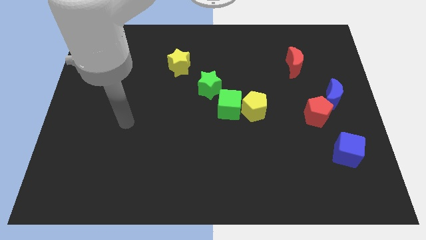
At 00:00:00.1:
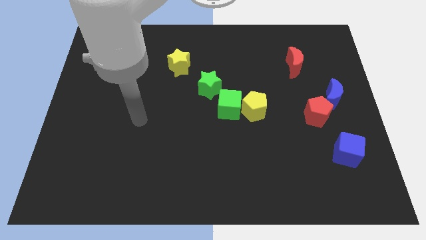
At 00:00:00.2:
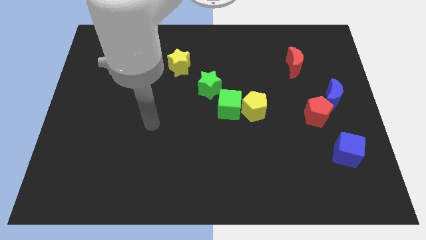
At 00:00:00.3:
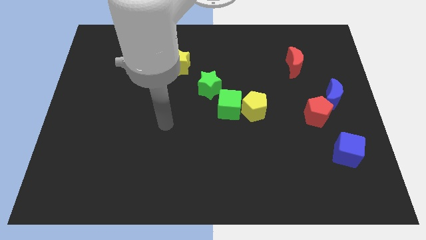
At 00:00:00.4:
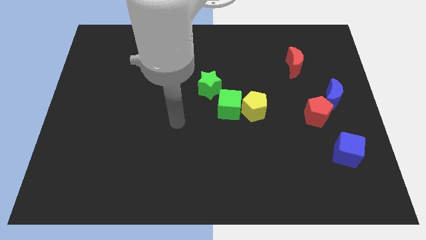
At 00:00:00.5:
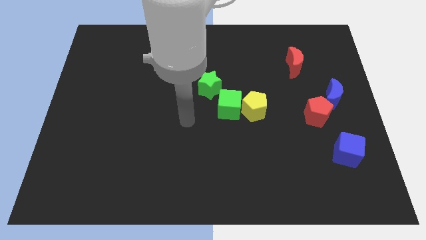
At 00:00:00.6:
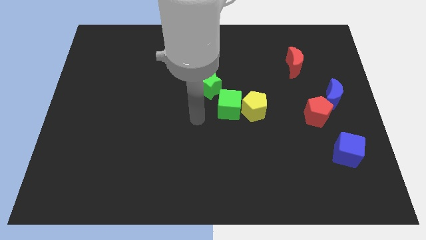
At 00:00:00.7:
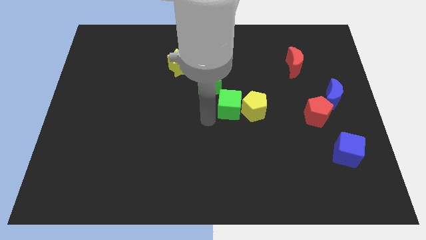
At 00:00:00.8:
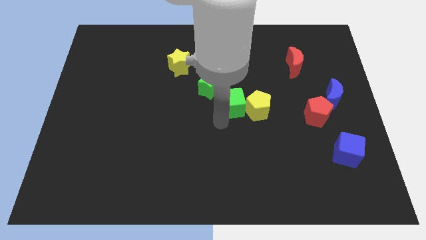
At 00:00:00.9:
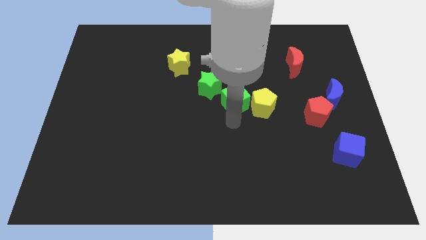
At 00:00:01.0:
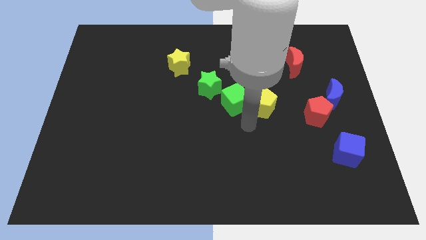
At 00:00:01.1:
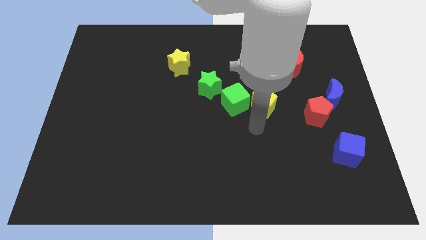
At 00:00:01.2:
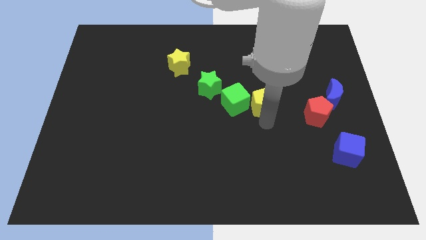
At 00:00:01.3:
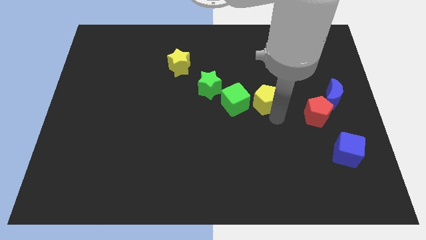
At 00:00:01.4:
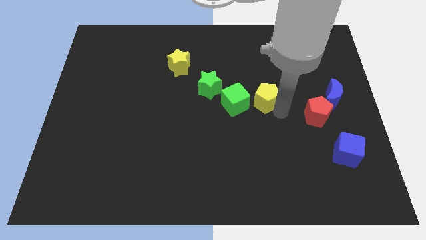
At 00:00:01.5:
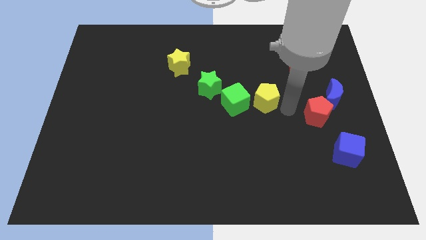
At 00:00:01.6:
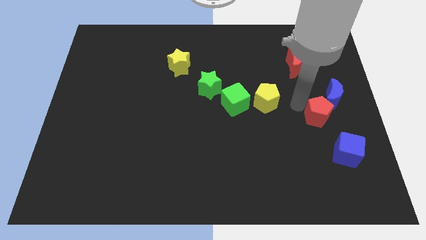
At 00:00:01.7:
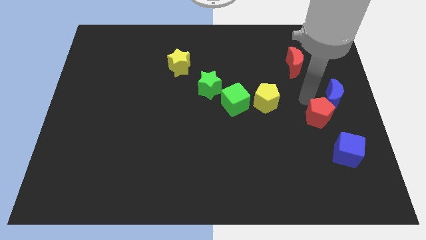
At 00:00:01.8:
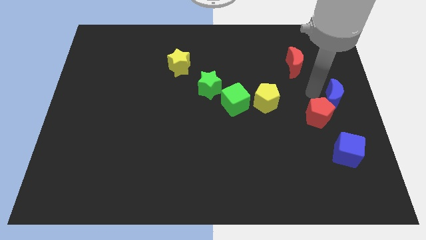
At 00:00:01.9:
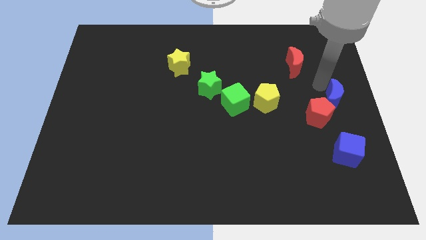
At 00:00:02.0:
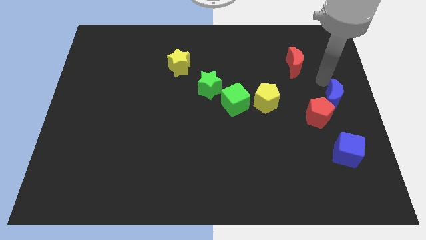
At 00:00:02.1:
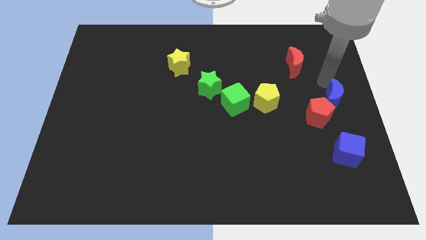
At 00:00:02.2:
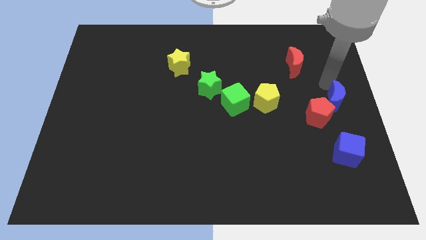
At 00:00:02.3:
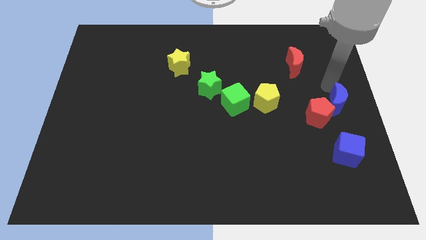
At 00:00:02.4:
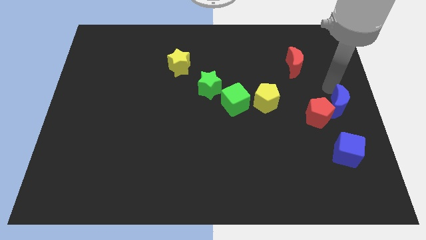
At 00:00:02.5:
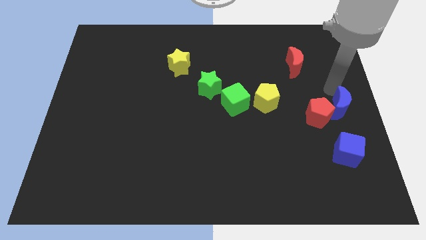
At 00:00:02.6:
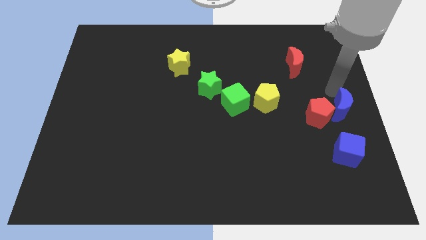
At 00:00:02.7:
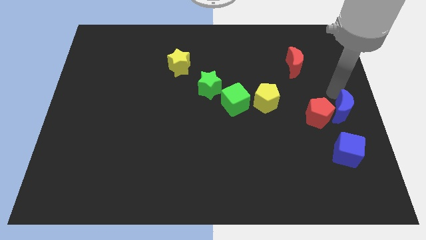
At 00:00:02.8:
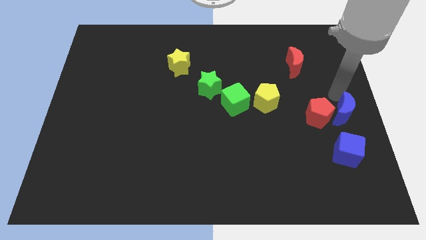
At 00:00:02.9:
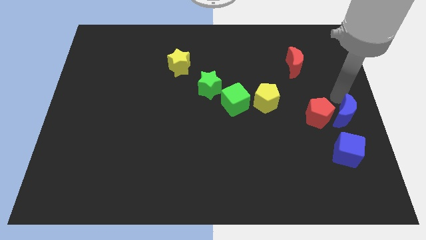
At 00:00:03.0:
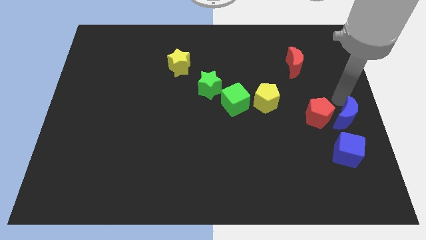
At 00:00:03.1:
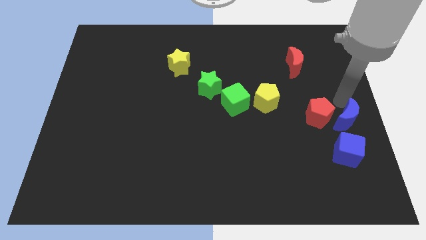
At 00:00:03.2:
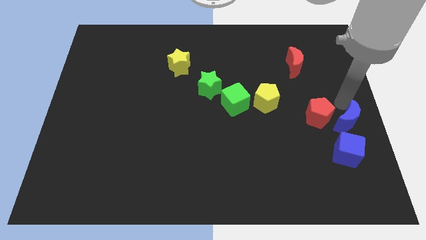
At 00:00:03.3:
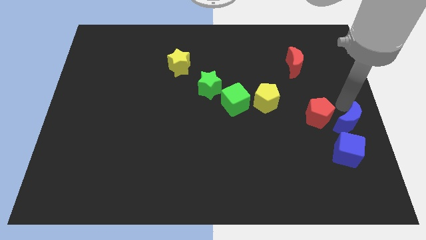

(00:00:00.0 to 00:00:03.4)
move the blue moon a bit downwards

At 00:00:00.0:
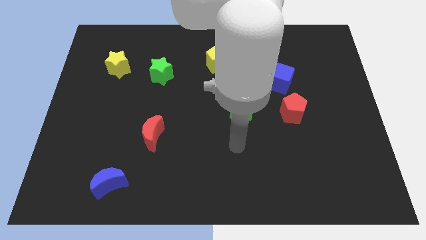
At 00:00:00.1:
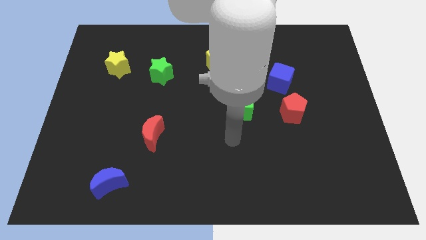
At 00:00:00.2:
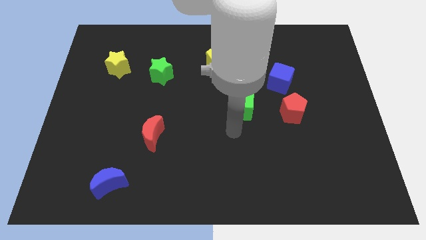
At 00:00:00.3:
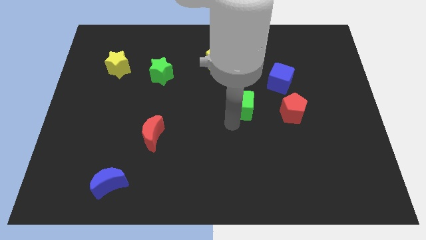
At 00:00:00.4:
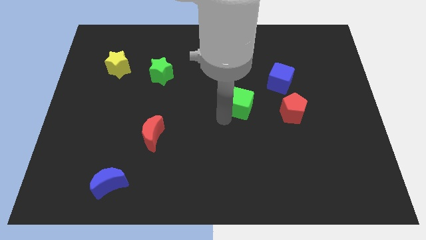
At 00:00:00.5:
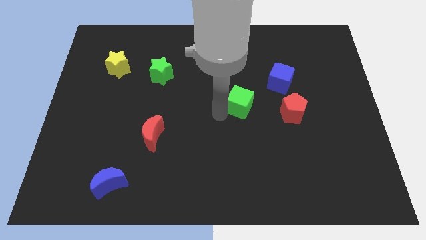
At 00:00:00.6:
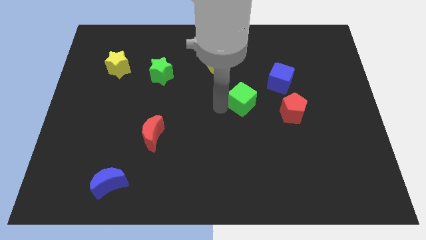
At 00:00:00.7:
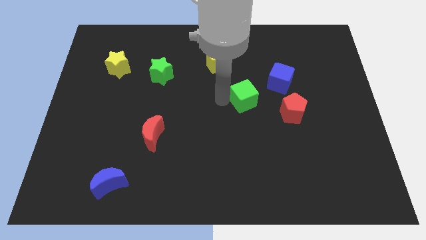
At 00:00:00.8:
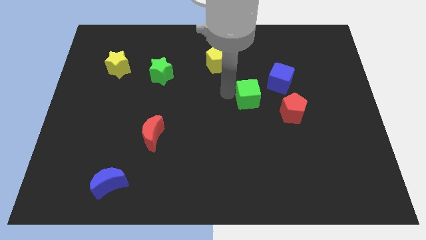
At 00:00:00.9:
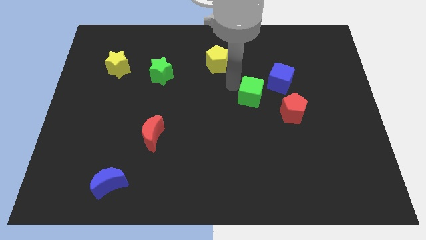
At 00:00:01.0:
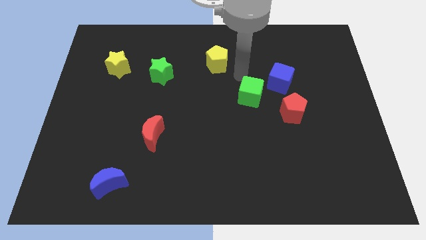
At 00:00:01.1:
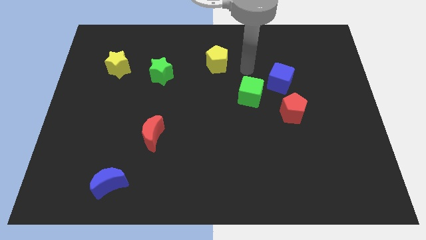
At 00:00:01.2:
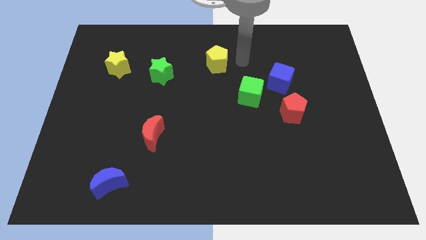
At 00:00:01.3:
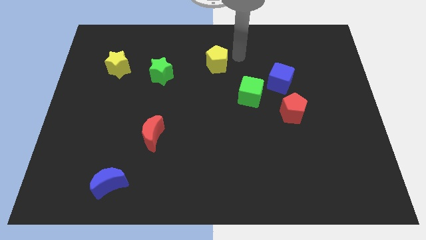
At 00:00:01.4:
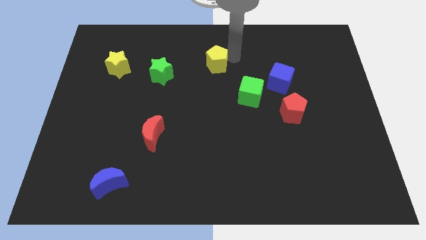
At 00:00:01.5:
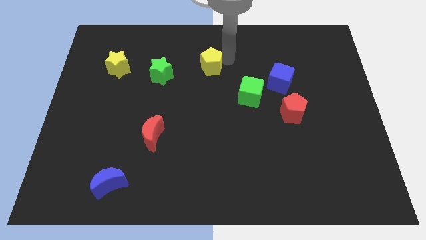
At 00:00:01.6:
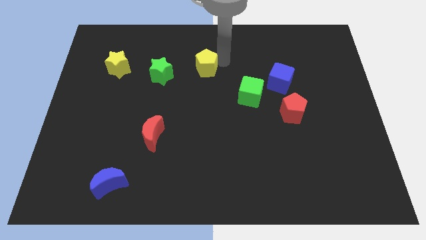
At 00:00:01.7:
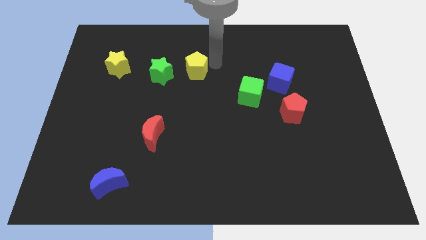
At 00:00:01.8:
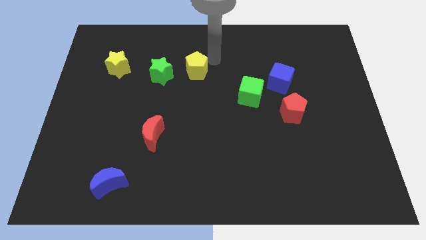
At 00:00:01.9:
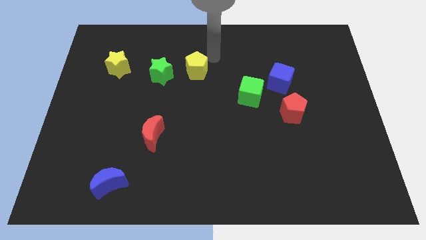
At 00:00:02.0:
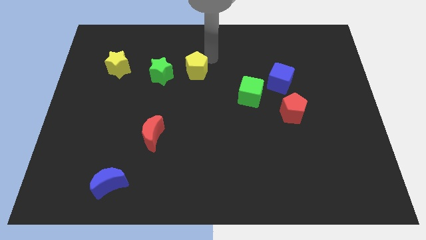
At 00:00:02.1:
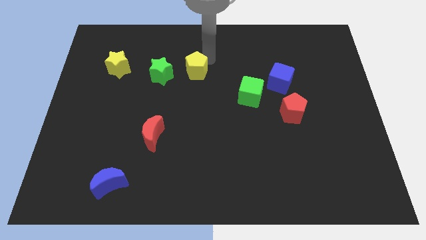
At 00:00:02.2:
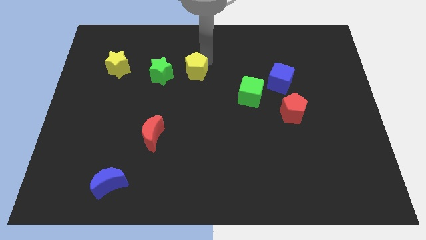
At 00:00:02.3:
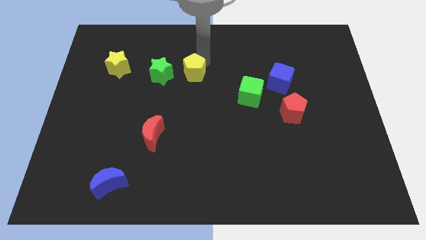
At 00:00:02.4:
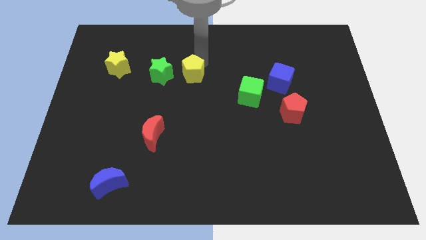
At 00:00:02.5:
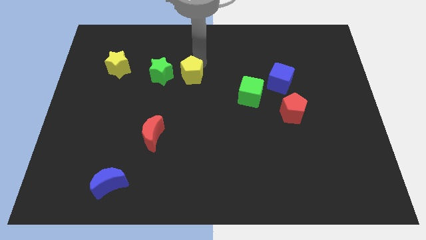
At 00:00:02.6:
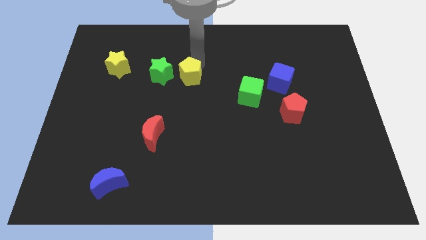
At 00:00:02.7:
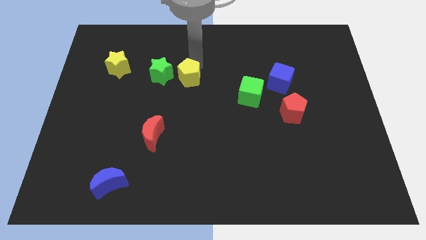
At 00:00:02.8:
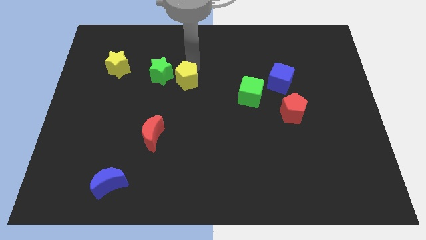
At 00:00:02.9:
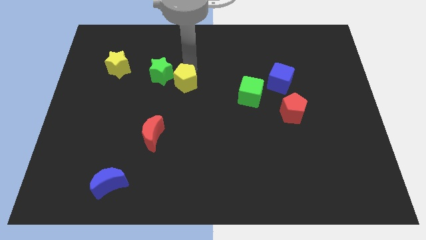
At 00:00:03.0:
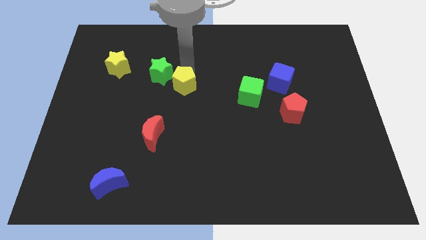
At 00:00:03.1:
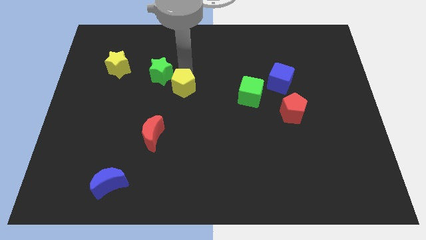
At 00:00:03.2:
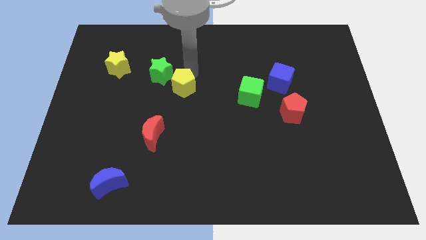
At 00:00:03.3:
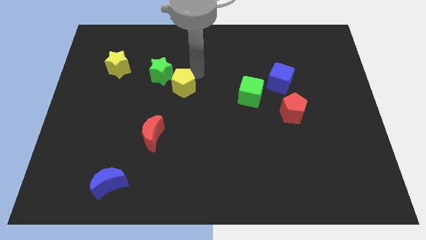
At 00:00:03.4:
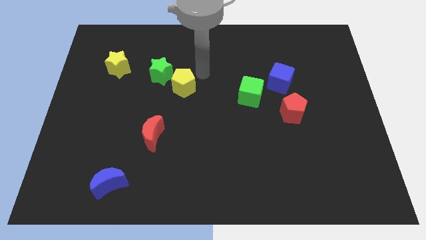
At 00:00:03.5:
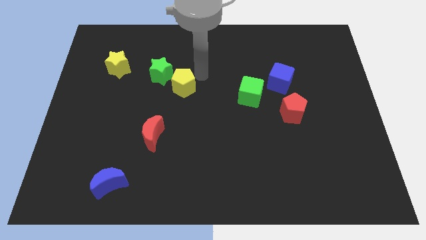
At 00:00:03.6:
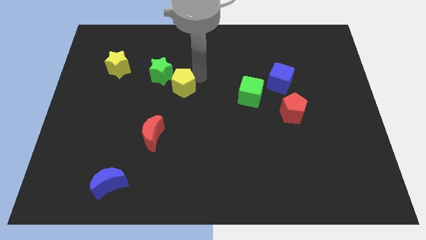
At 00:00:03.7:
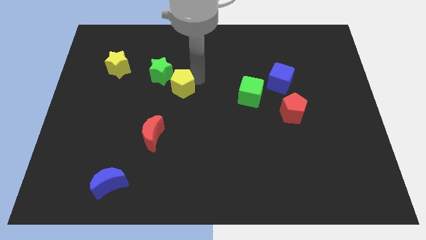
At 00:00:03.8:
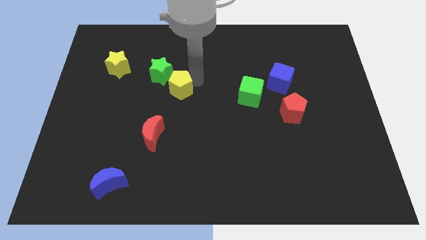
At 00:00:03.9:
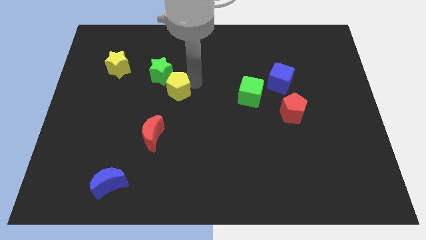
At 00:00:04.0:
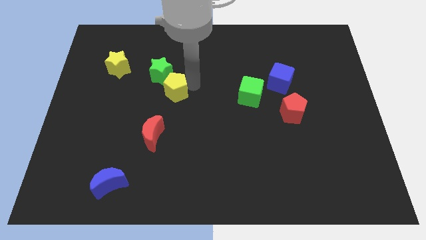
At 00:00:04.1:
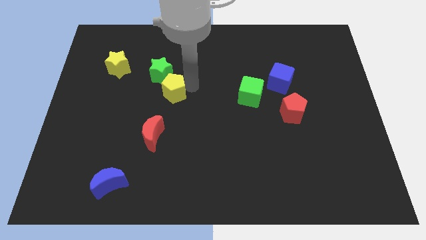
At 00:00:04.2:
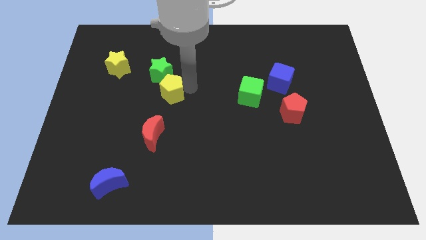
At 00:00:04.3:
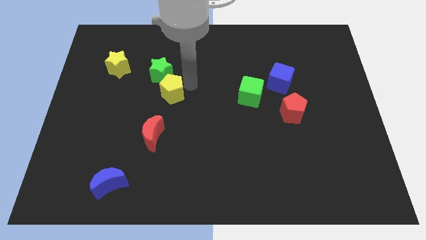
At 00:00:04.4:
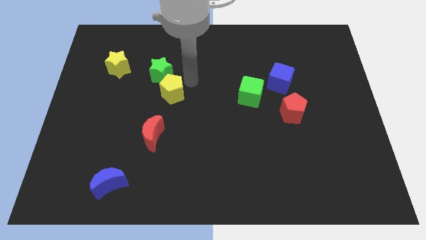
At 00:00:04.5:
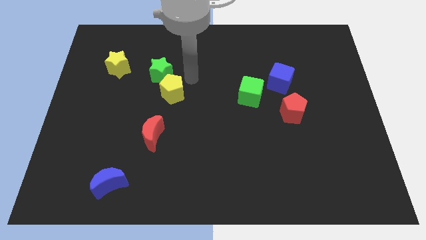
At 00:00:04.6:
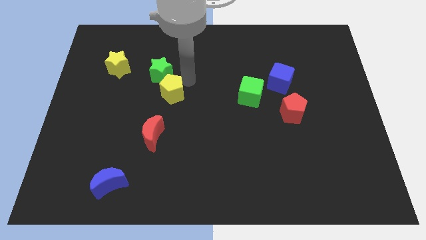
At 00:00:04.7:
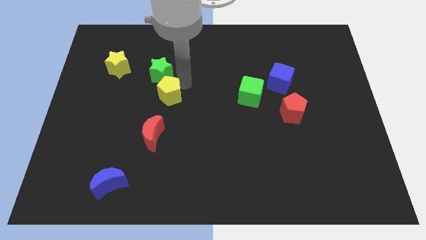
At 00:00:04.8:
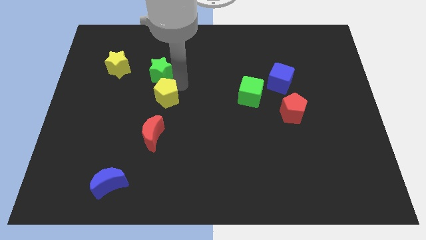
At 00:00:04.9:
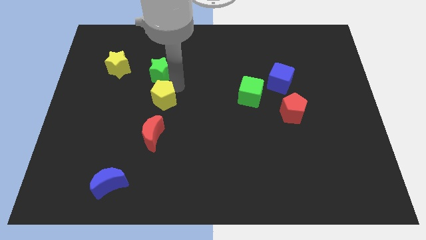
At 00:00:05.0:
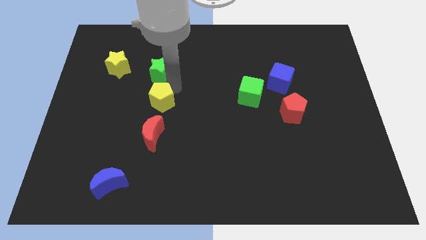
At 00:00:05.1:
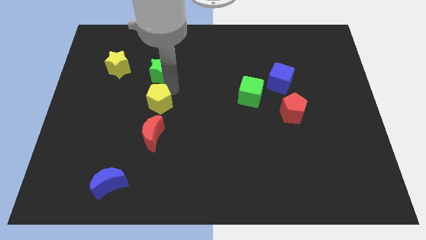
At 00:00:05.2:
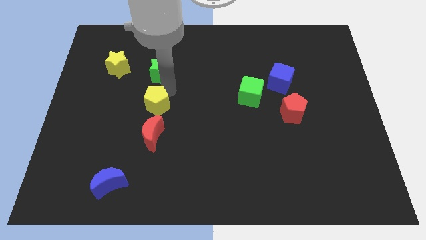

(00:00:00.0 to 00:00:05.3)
move the yellow pentagon down and to the left
